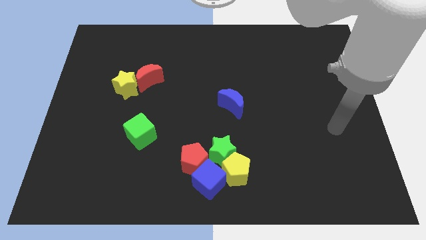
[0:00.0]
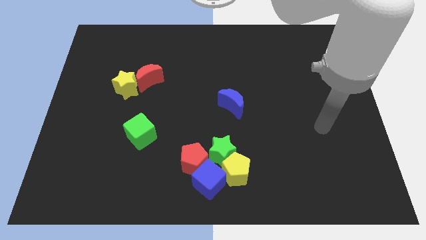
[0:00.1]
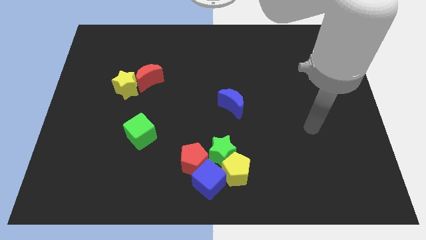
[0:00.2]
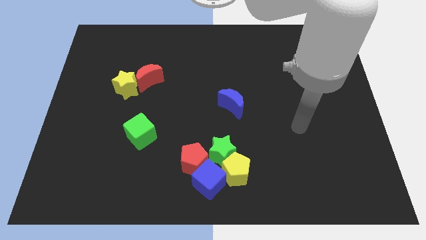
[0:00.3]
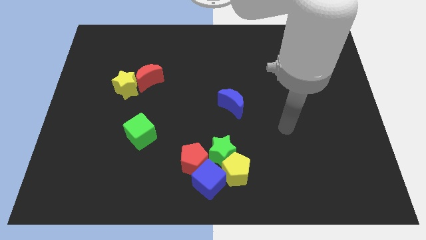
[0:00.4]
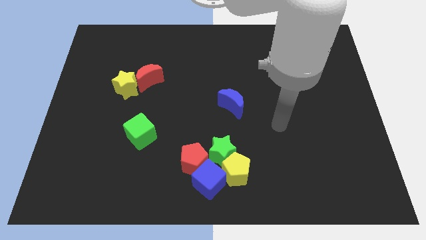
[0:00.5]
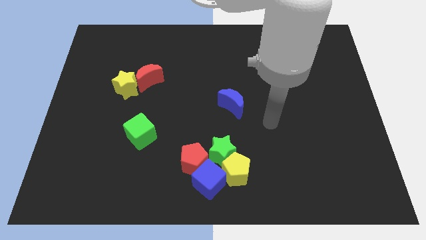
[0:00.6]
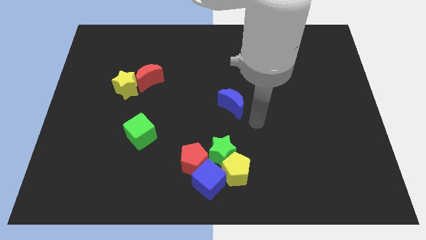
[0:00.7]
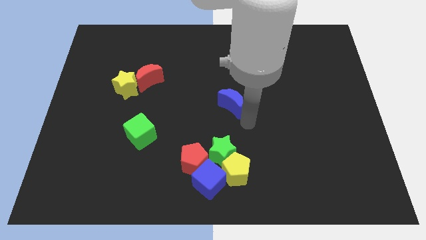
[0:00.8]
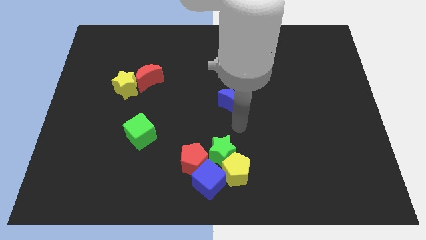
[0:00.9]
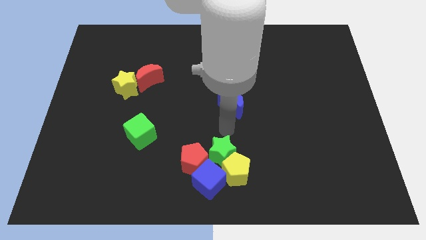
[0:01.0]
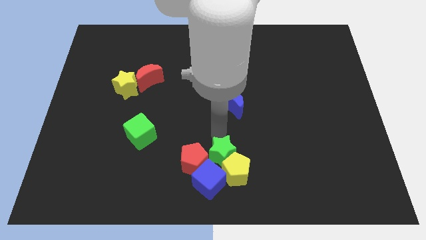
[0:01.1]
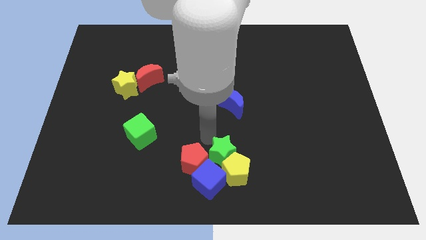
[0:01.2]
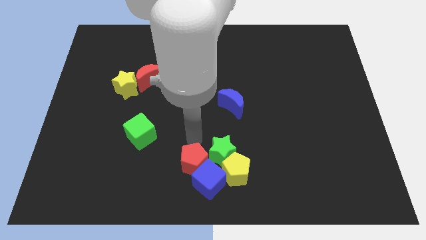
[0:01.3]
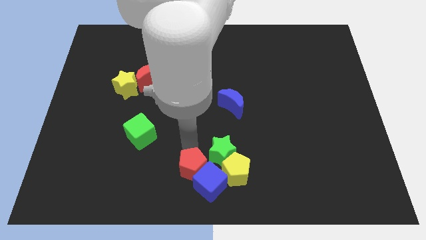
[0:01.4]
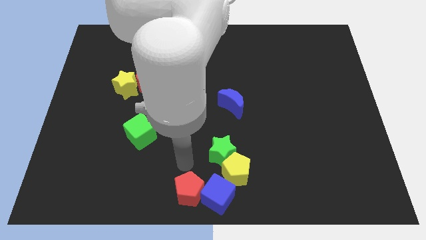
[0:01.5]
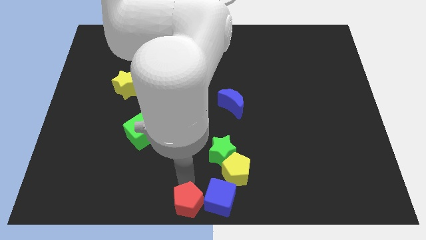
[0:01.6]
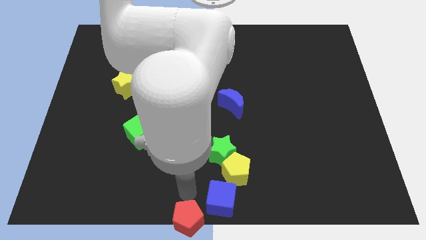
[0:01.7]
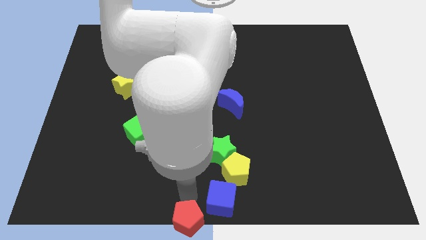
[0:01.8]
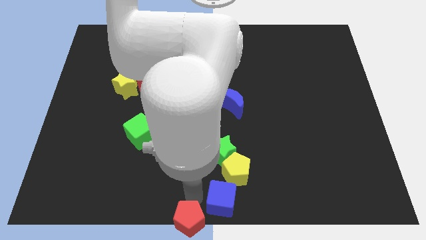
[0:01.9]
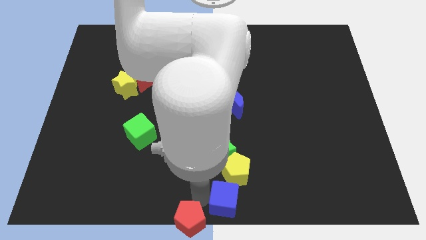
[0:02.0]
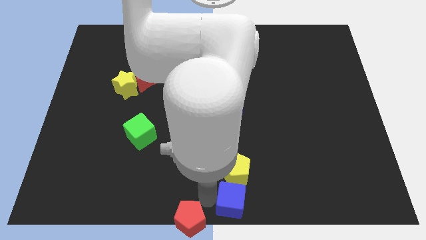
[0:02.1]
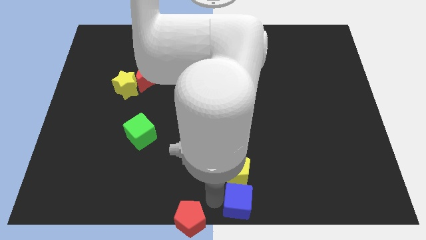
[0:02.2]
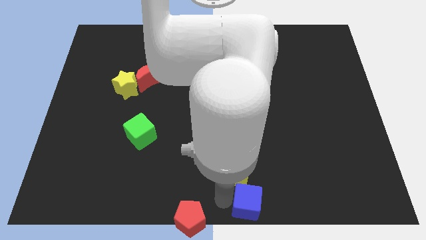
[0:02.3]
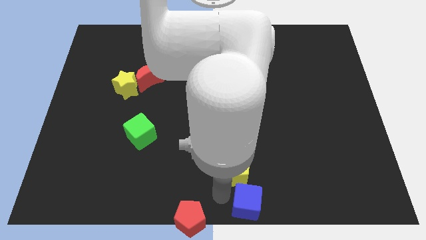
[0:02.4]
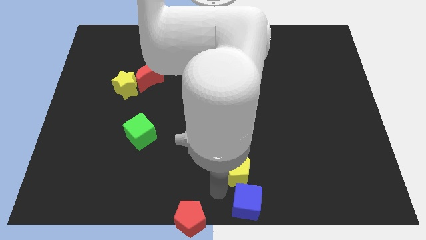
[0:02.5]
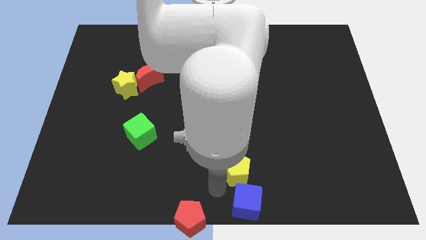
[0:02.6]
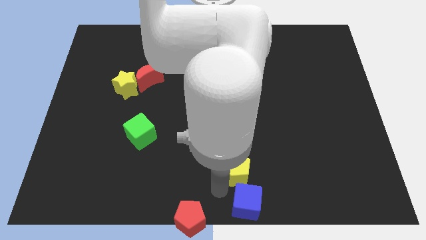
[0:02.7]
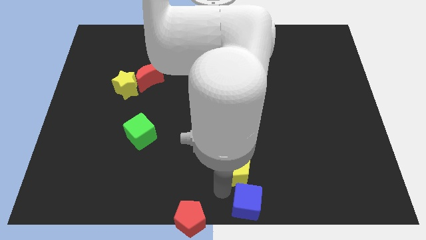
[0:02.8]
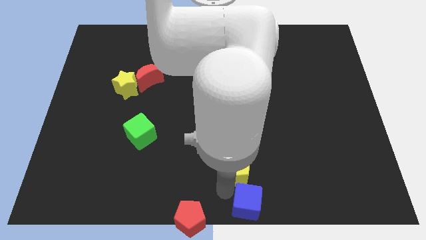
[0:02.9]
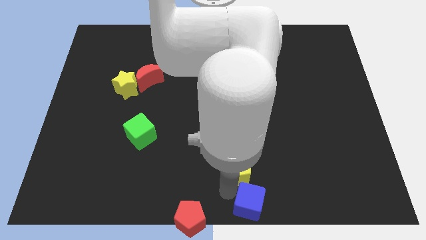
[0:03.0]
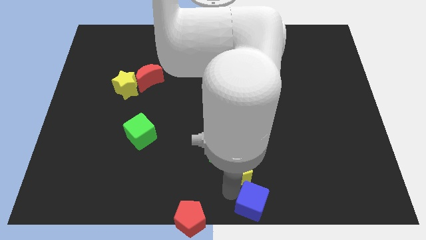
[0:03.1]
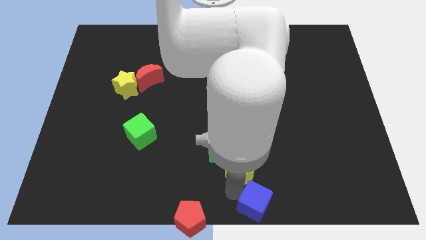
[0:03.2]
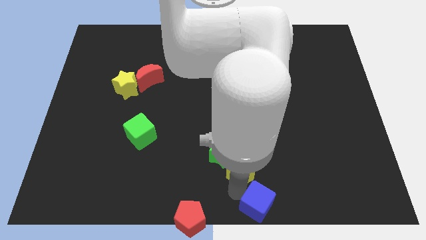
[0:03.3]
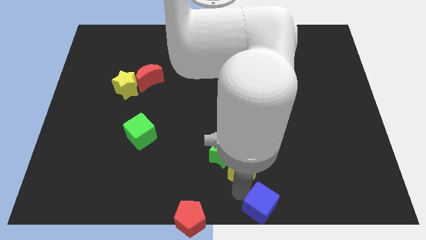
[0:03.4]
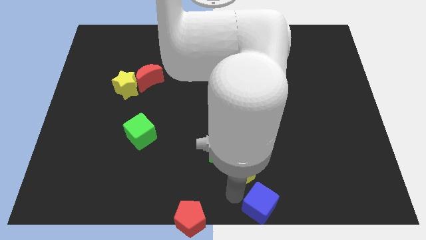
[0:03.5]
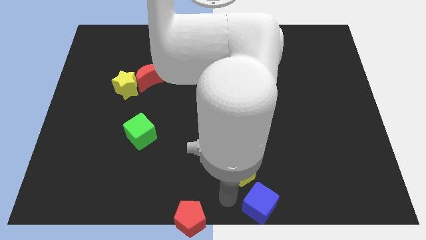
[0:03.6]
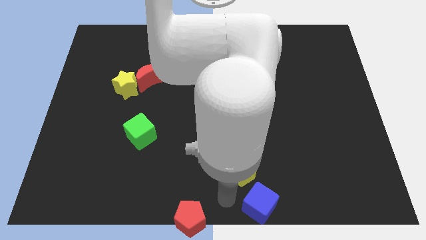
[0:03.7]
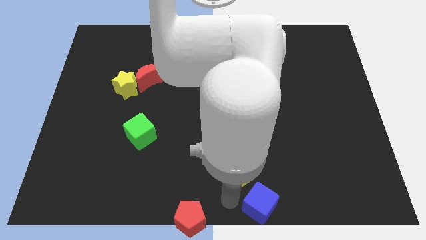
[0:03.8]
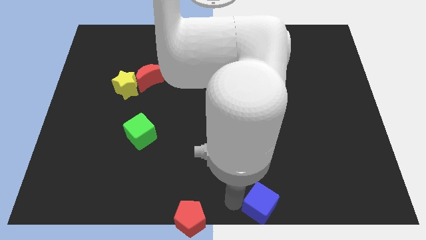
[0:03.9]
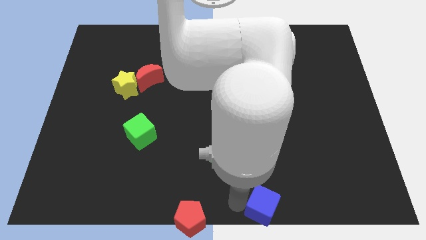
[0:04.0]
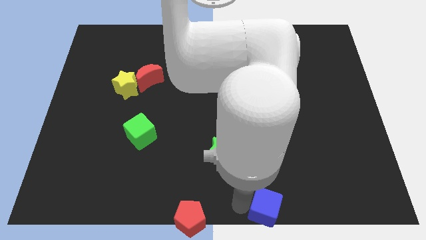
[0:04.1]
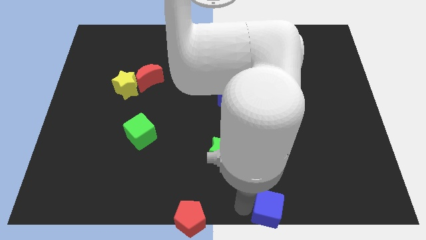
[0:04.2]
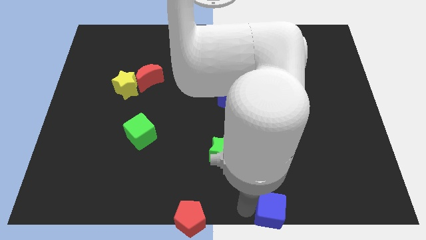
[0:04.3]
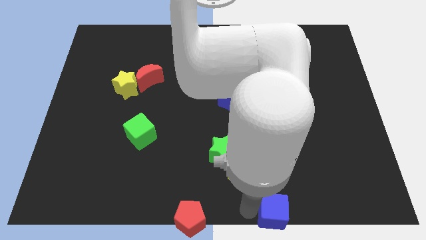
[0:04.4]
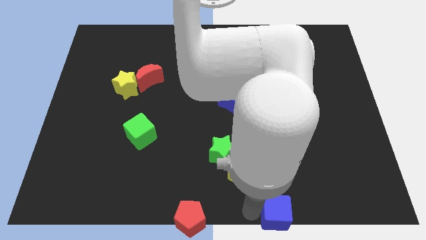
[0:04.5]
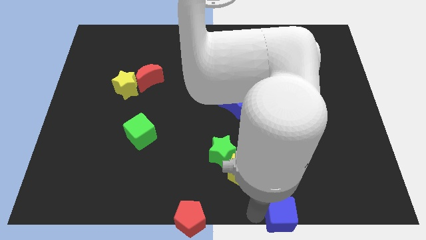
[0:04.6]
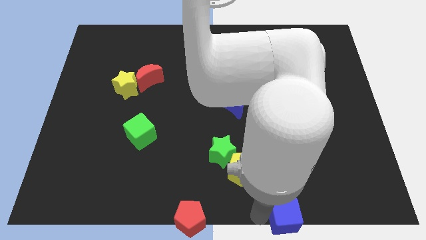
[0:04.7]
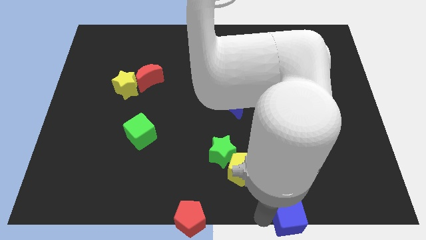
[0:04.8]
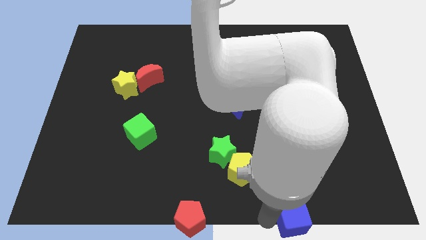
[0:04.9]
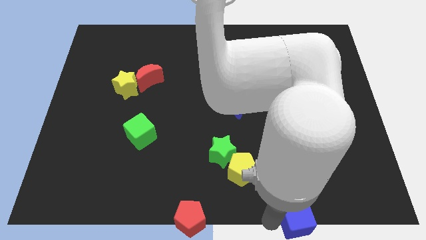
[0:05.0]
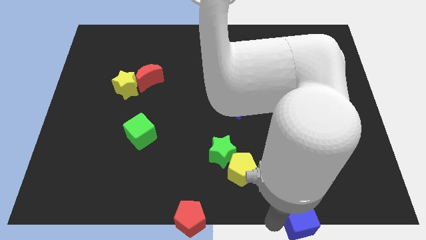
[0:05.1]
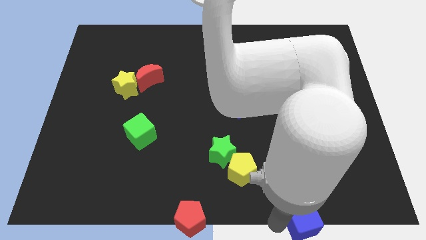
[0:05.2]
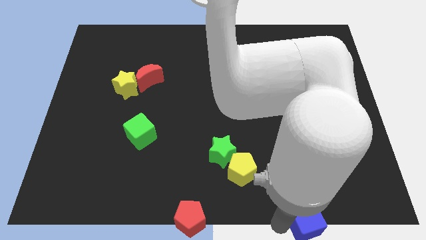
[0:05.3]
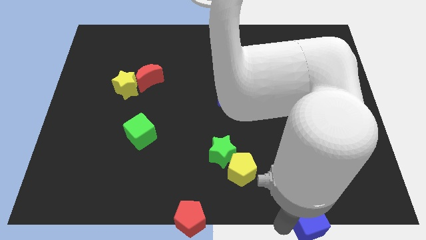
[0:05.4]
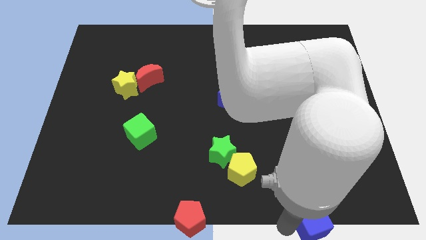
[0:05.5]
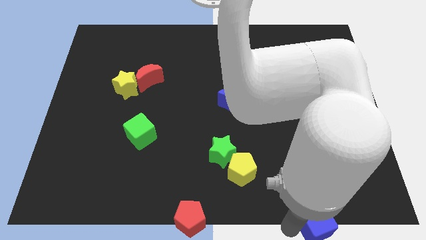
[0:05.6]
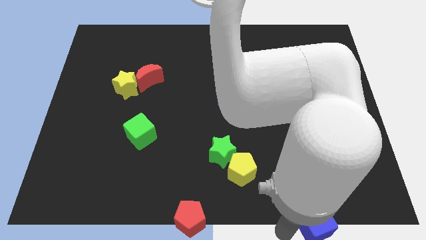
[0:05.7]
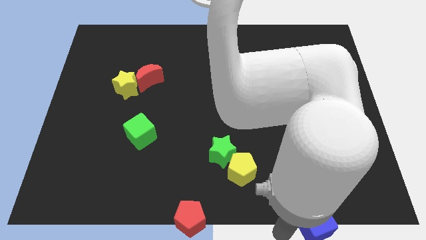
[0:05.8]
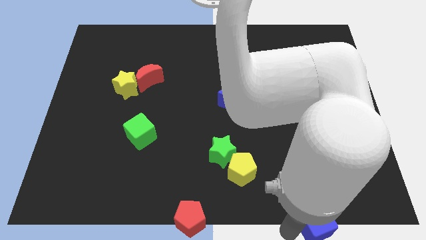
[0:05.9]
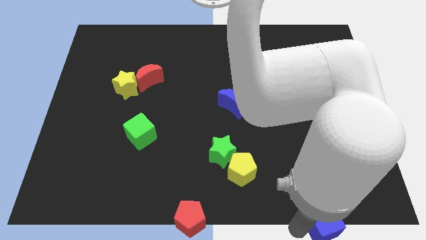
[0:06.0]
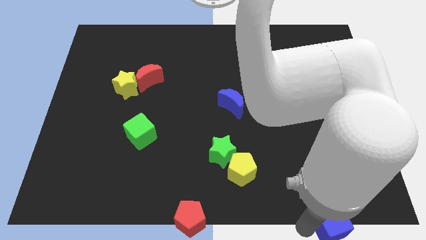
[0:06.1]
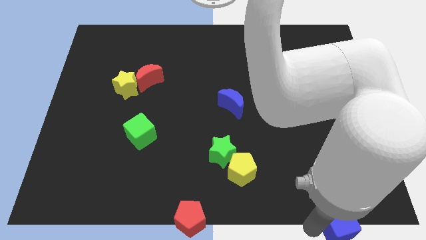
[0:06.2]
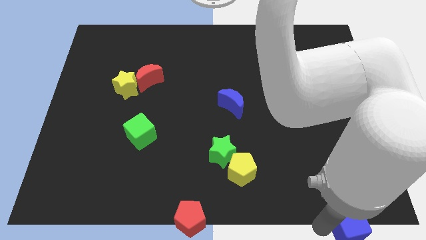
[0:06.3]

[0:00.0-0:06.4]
slide the blue cube to the lower right corner
